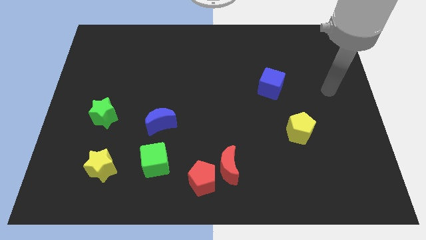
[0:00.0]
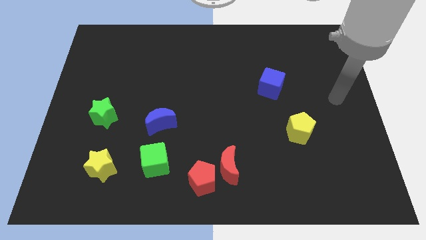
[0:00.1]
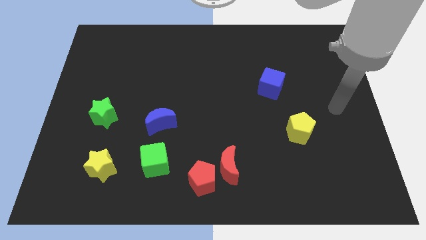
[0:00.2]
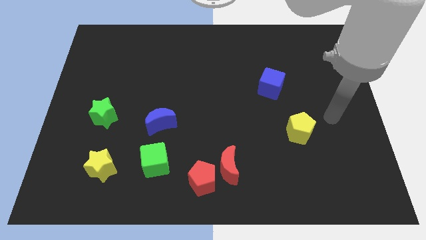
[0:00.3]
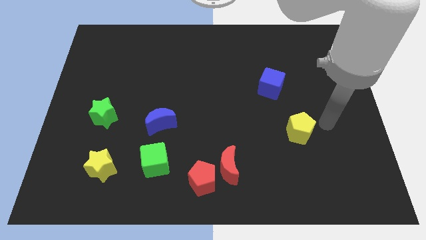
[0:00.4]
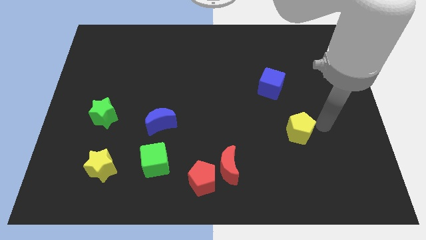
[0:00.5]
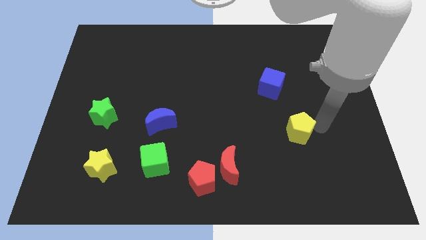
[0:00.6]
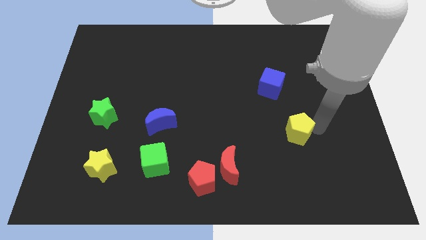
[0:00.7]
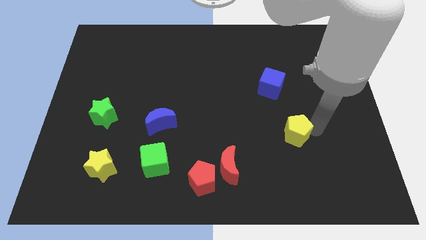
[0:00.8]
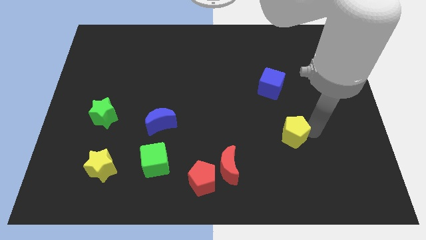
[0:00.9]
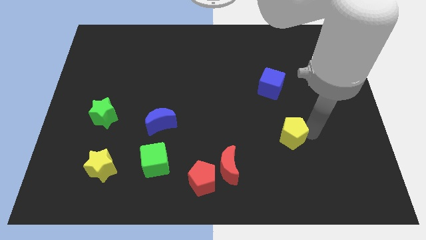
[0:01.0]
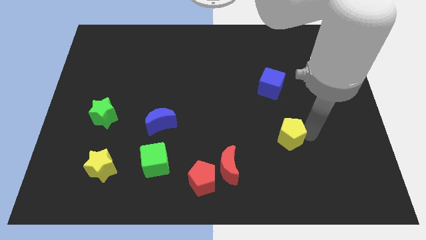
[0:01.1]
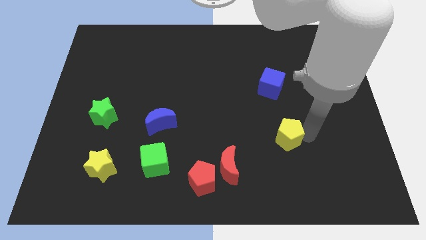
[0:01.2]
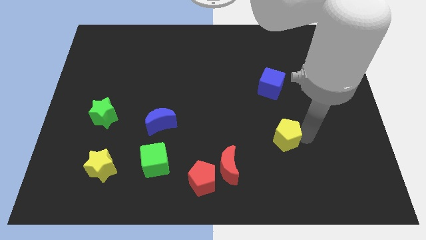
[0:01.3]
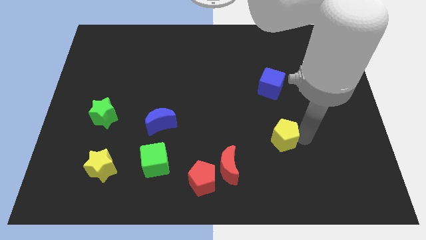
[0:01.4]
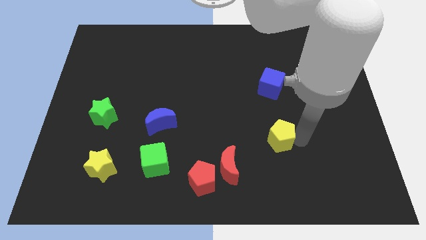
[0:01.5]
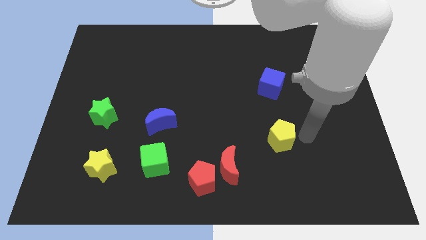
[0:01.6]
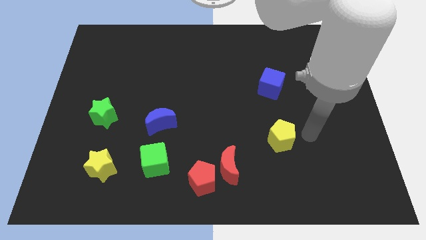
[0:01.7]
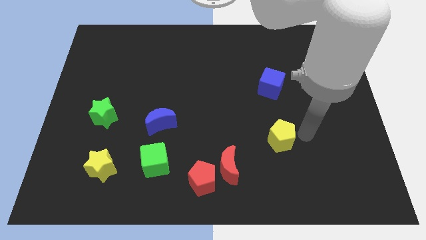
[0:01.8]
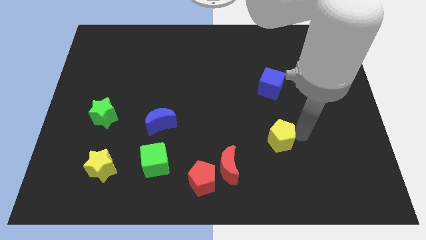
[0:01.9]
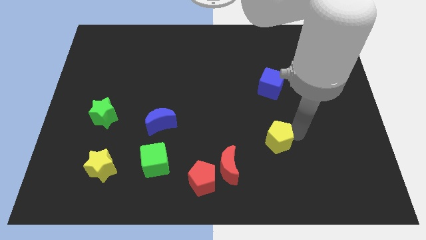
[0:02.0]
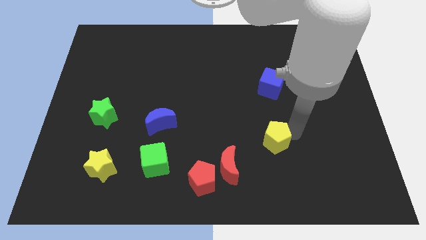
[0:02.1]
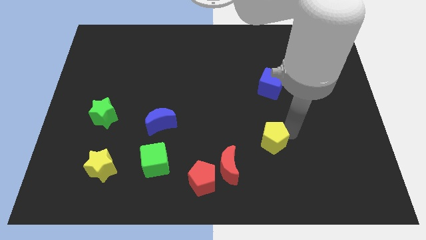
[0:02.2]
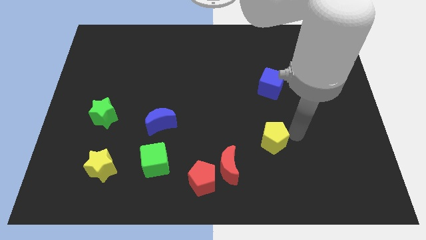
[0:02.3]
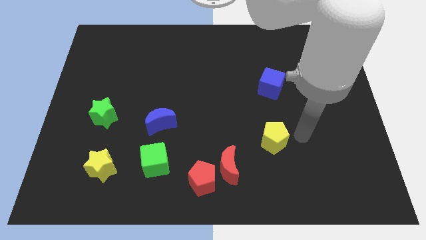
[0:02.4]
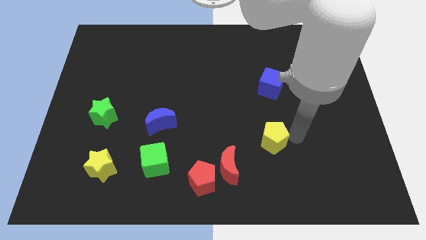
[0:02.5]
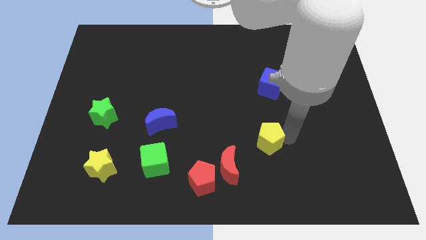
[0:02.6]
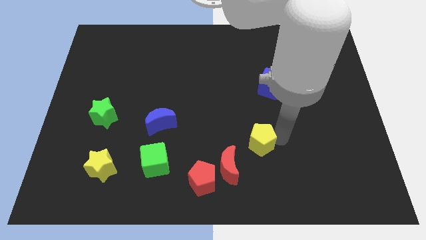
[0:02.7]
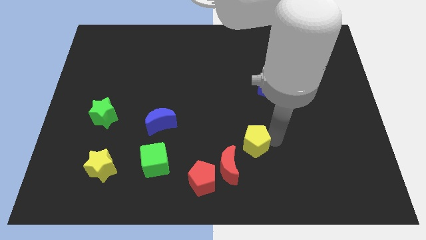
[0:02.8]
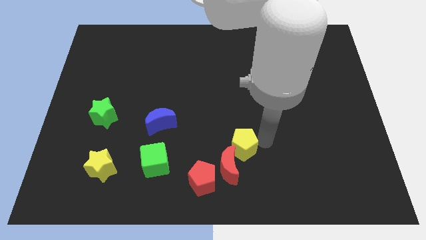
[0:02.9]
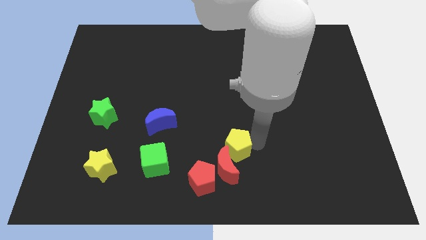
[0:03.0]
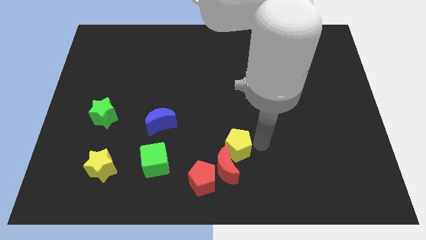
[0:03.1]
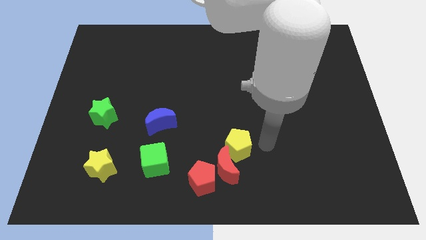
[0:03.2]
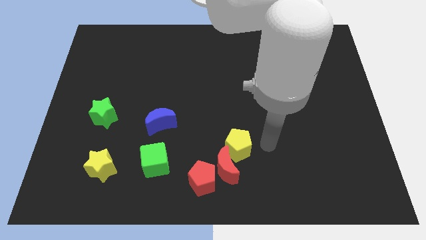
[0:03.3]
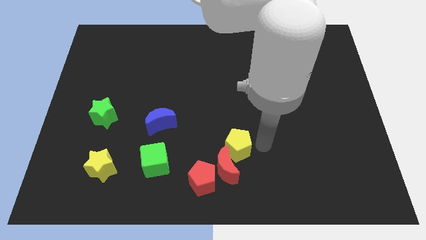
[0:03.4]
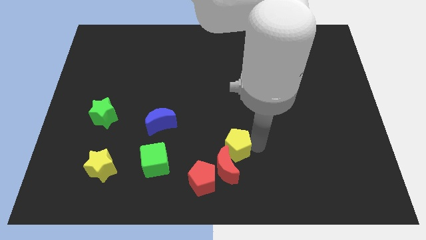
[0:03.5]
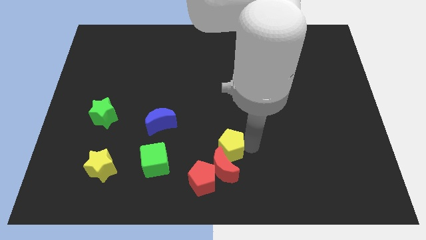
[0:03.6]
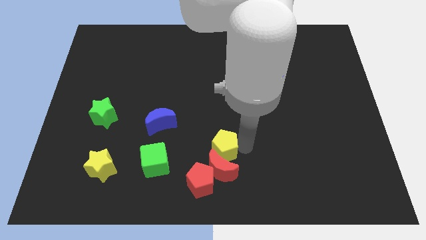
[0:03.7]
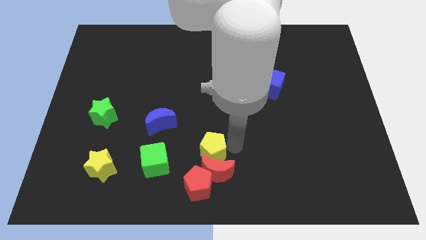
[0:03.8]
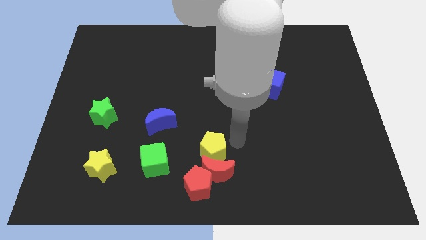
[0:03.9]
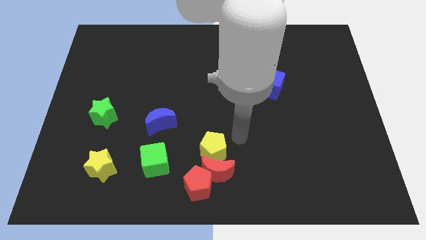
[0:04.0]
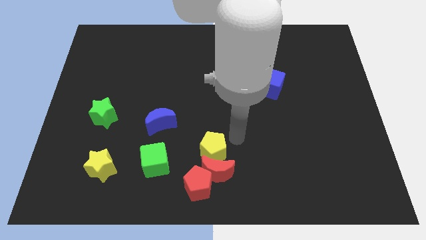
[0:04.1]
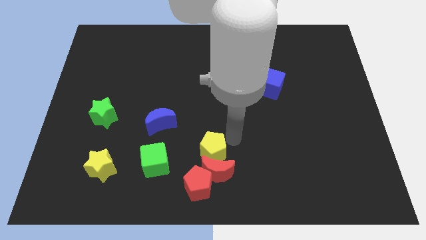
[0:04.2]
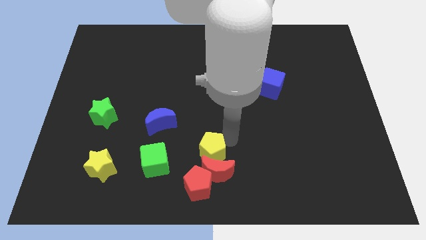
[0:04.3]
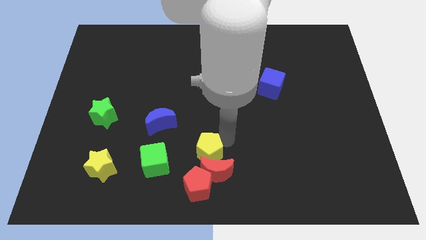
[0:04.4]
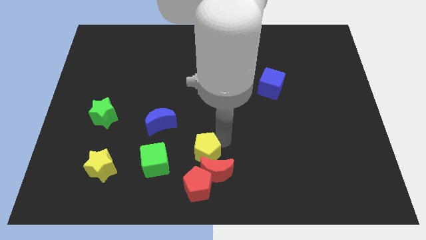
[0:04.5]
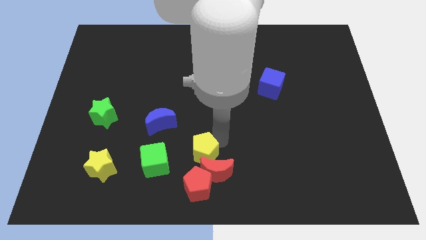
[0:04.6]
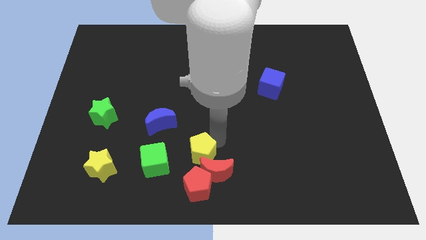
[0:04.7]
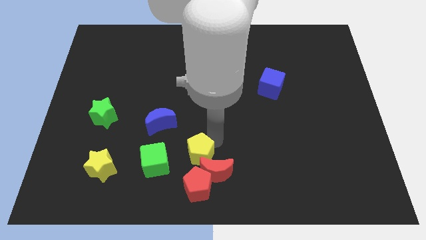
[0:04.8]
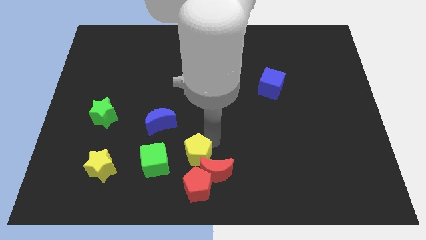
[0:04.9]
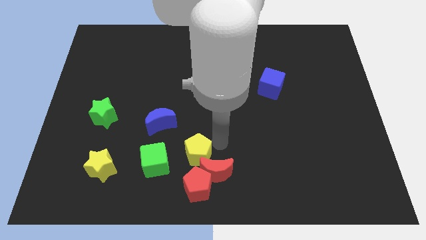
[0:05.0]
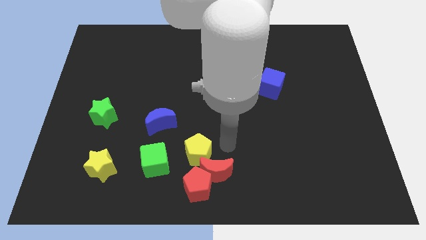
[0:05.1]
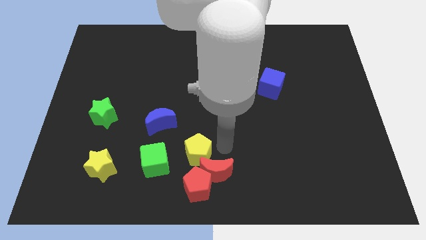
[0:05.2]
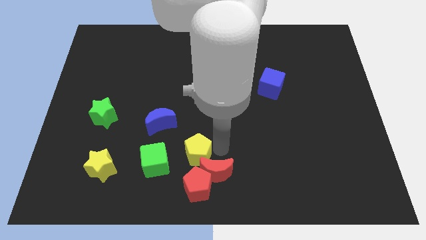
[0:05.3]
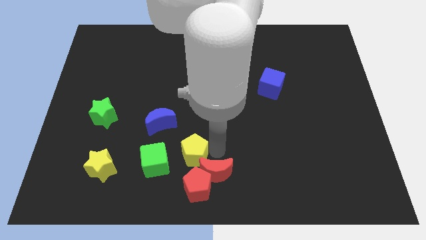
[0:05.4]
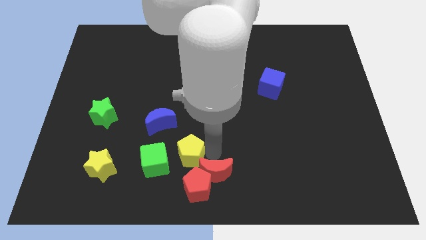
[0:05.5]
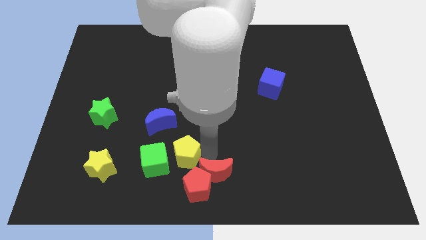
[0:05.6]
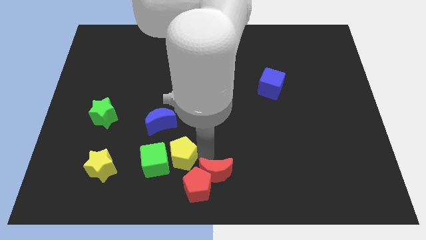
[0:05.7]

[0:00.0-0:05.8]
slide the yellow pentagon towards the green cube

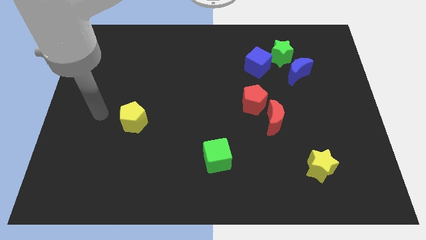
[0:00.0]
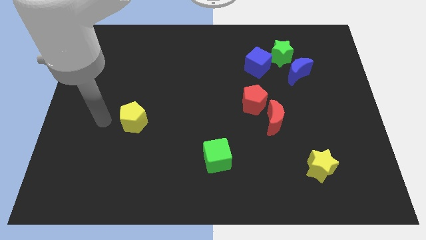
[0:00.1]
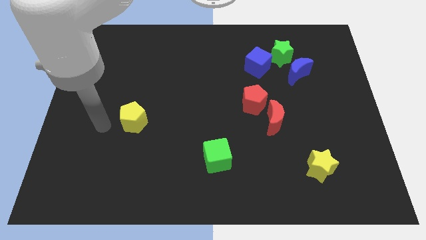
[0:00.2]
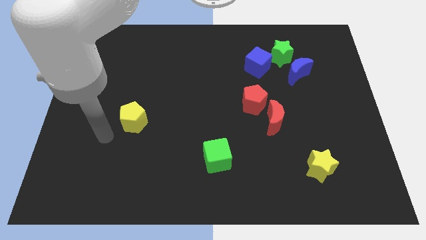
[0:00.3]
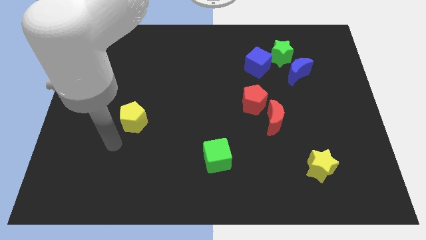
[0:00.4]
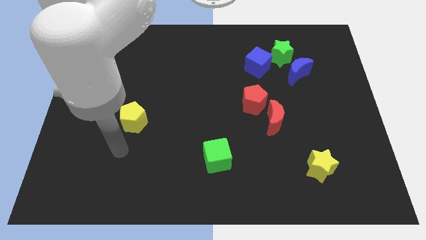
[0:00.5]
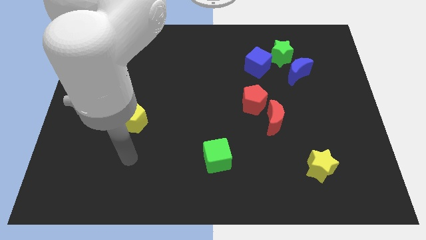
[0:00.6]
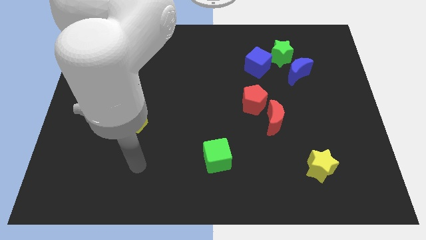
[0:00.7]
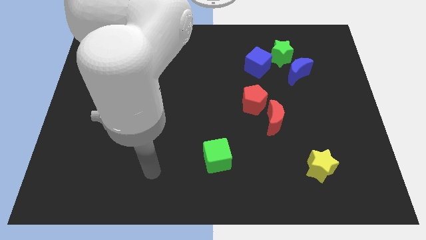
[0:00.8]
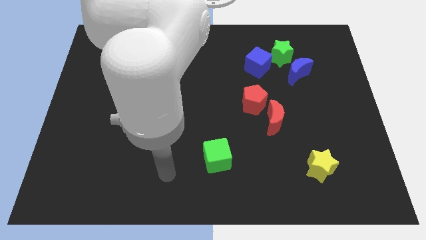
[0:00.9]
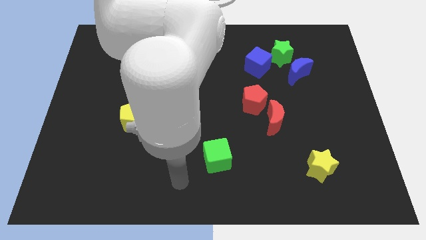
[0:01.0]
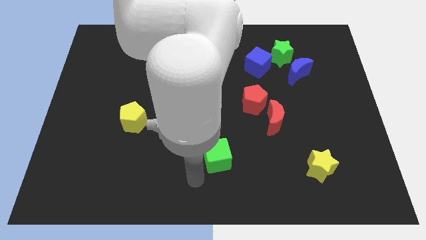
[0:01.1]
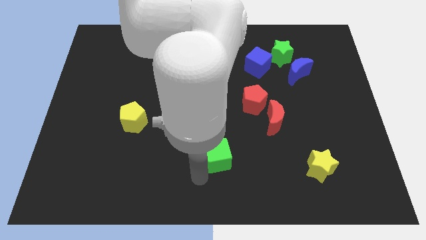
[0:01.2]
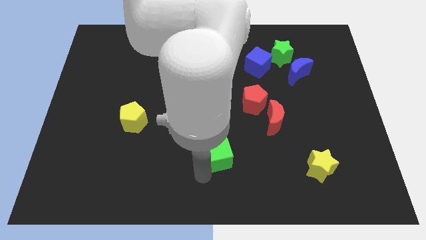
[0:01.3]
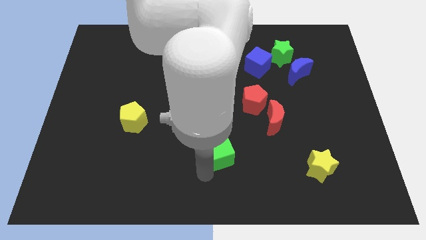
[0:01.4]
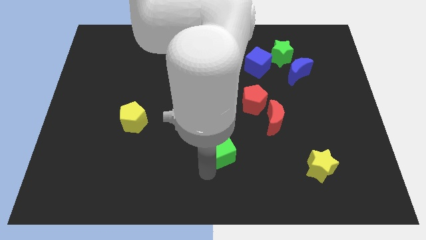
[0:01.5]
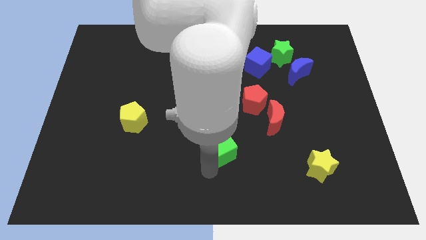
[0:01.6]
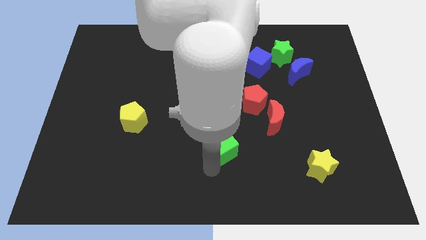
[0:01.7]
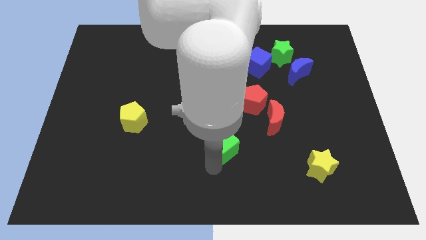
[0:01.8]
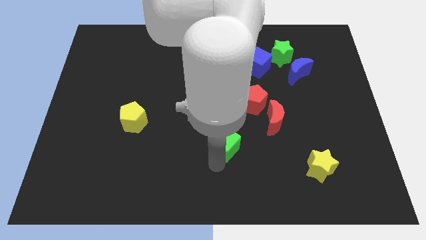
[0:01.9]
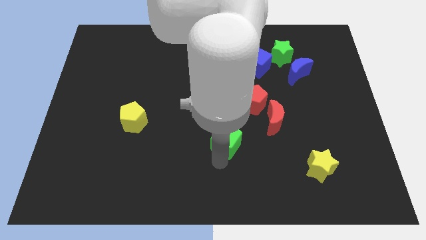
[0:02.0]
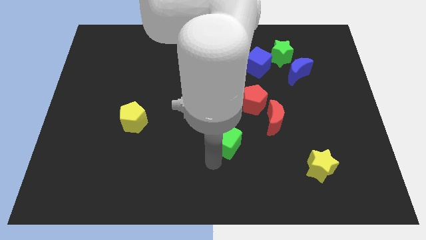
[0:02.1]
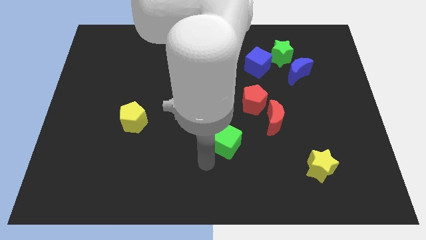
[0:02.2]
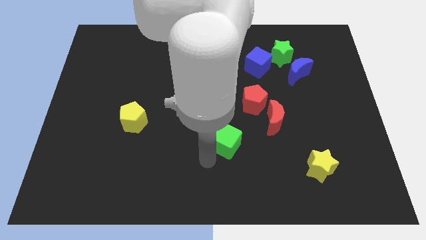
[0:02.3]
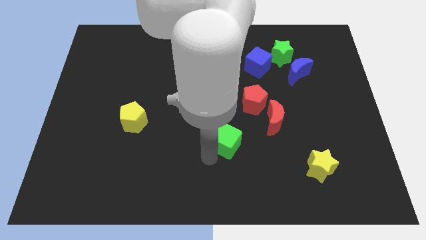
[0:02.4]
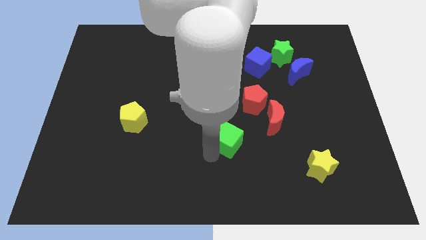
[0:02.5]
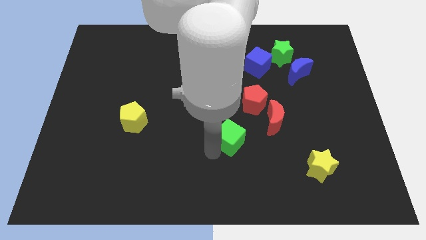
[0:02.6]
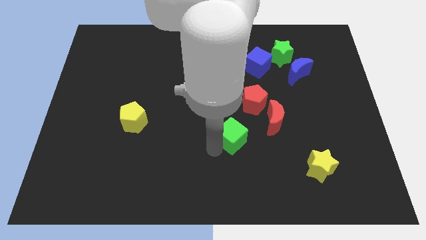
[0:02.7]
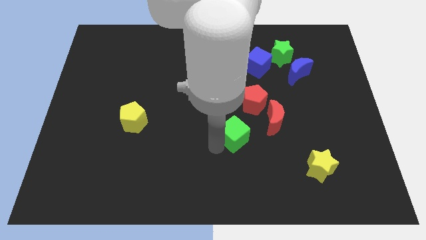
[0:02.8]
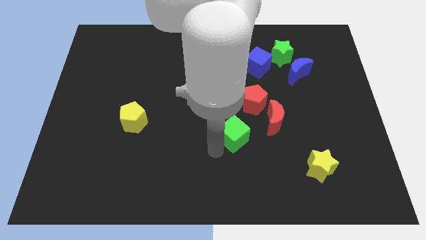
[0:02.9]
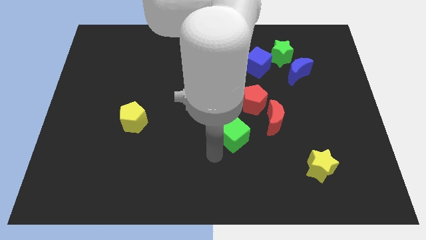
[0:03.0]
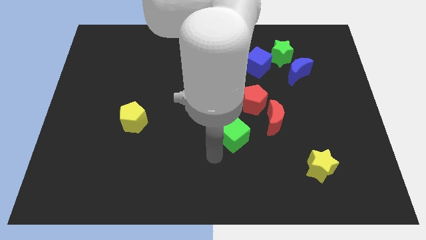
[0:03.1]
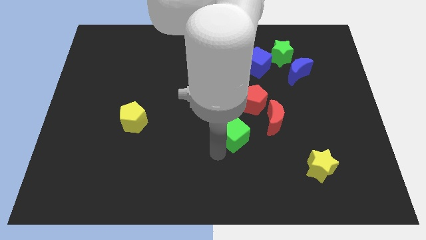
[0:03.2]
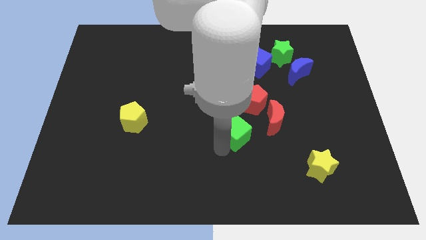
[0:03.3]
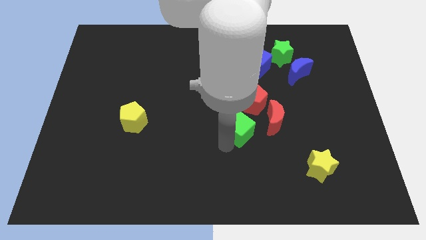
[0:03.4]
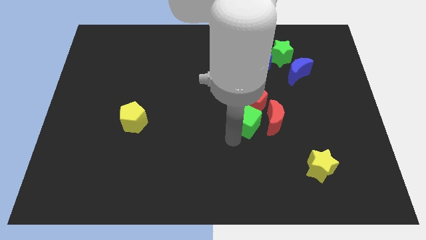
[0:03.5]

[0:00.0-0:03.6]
push the green cube to the red pentagon
